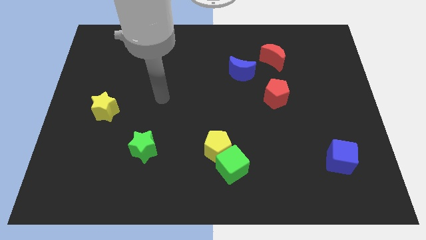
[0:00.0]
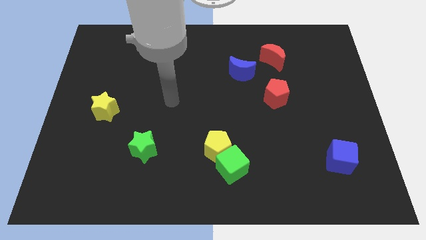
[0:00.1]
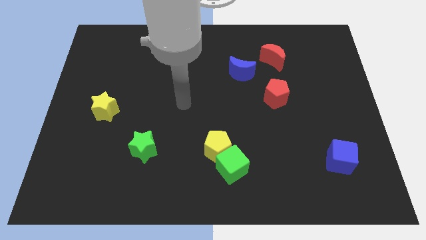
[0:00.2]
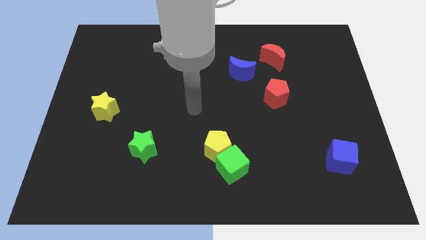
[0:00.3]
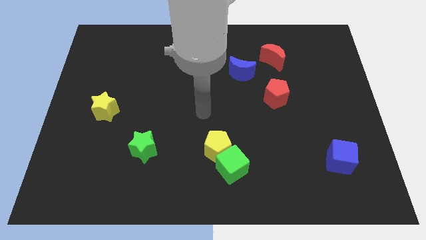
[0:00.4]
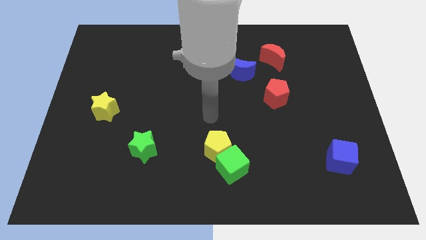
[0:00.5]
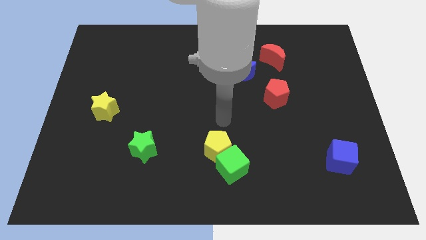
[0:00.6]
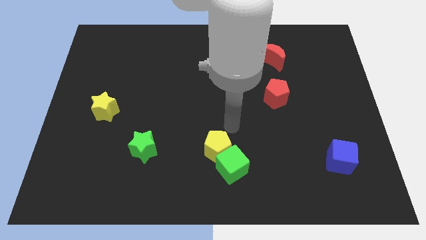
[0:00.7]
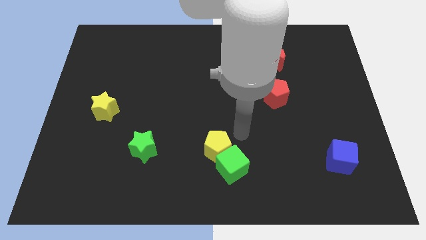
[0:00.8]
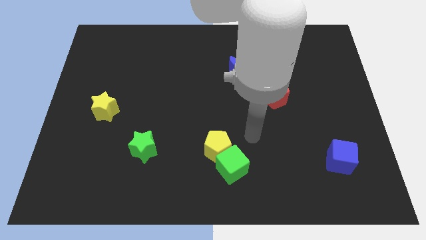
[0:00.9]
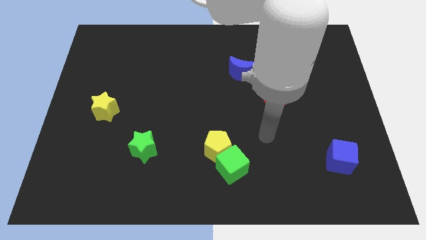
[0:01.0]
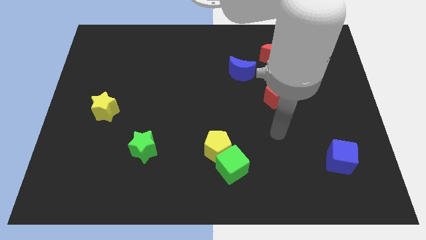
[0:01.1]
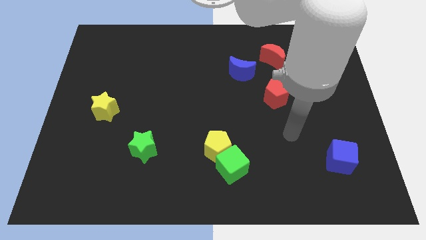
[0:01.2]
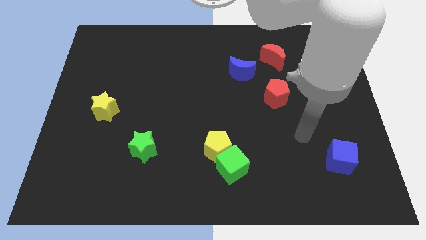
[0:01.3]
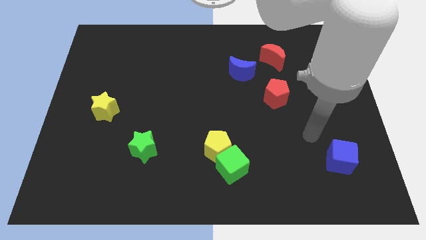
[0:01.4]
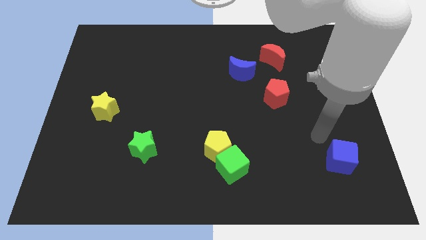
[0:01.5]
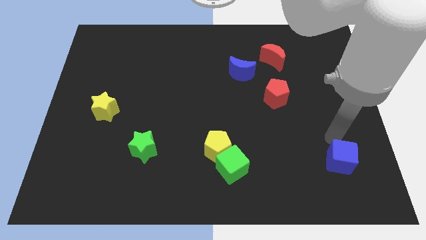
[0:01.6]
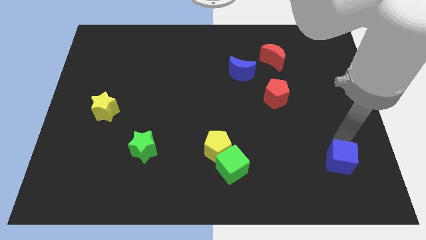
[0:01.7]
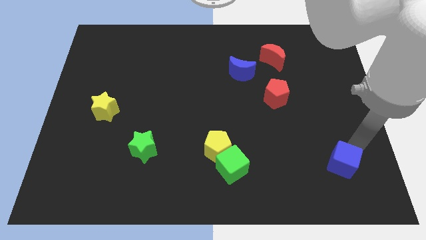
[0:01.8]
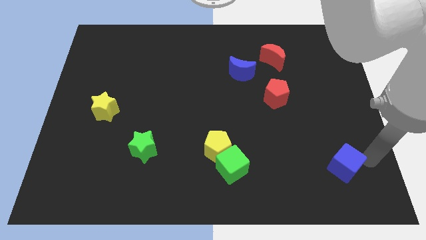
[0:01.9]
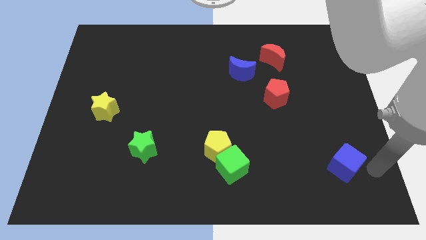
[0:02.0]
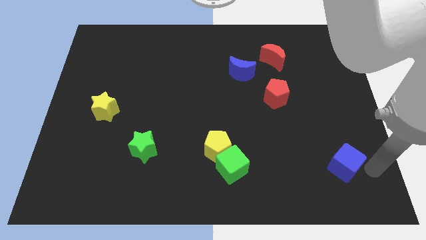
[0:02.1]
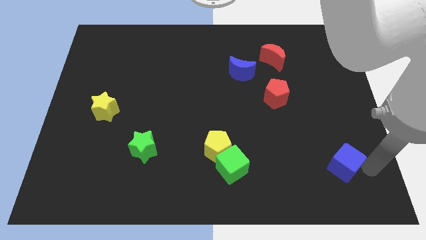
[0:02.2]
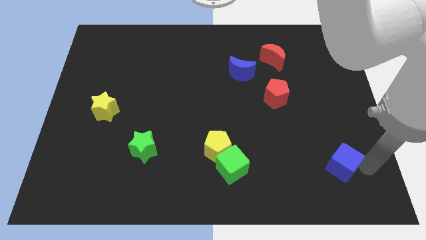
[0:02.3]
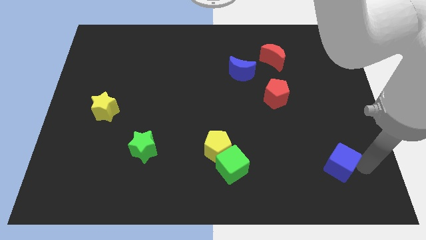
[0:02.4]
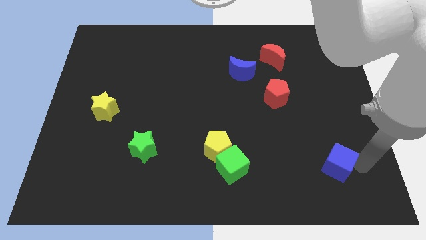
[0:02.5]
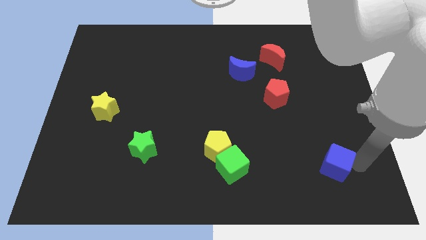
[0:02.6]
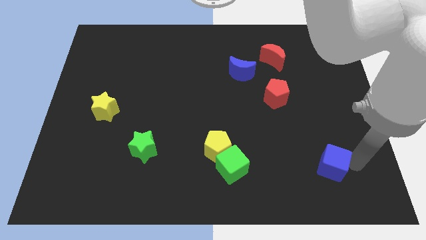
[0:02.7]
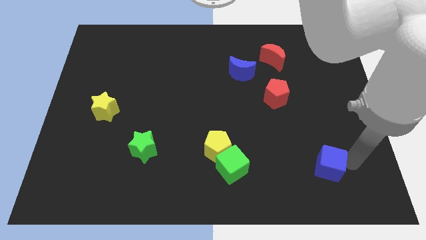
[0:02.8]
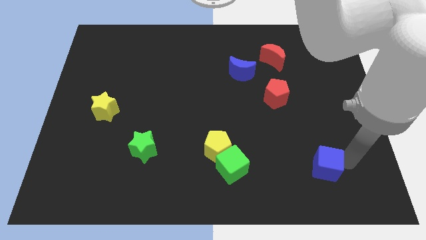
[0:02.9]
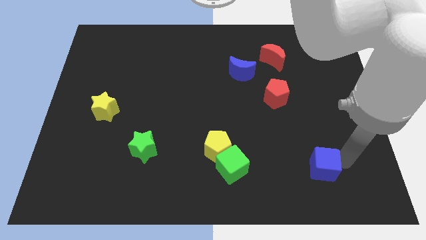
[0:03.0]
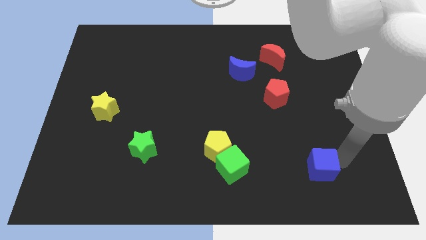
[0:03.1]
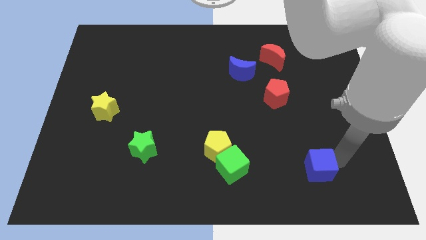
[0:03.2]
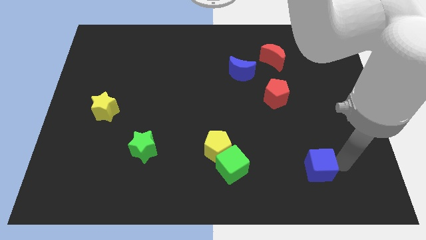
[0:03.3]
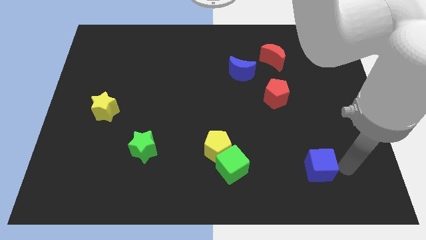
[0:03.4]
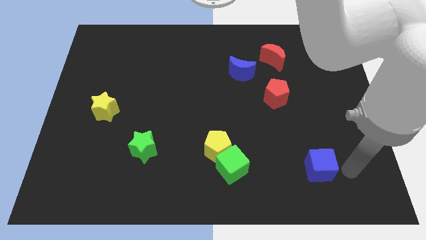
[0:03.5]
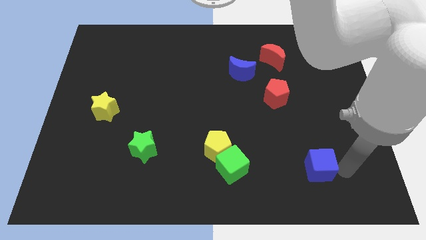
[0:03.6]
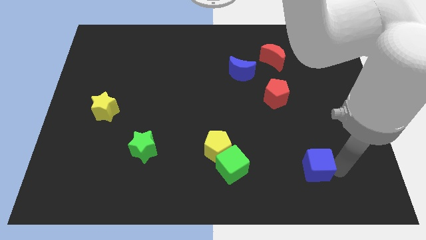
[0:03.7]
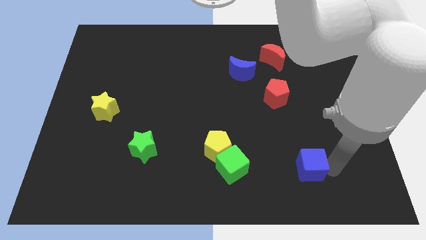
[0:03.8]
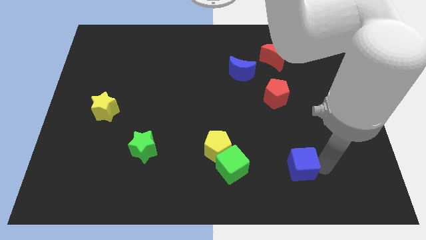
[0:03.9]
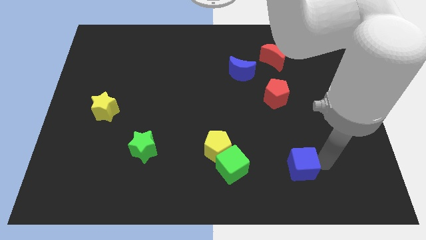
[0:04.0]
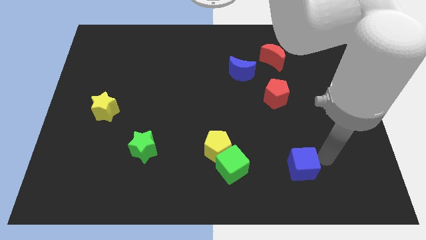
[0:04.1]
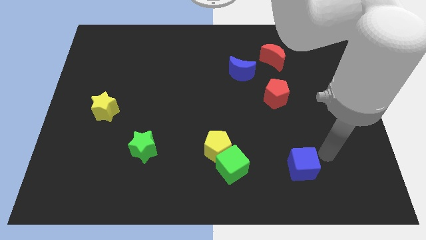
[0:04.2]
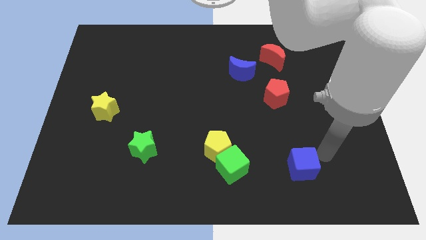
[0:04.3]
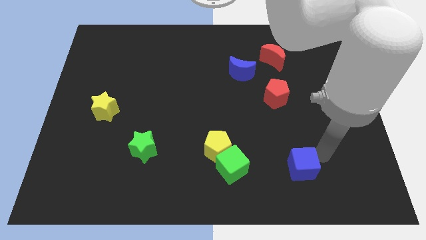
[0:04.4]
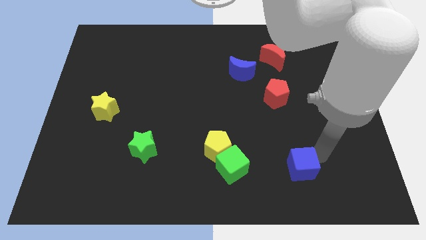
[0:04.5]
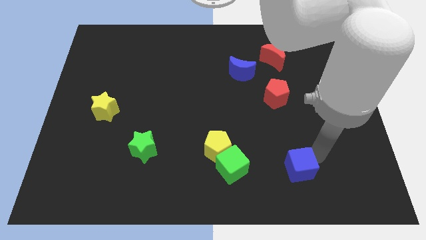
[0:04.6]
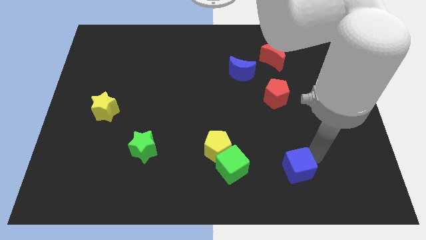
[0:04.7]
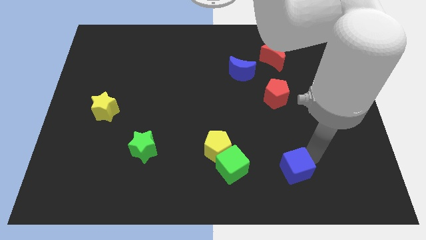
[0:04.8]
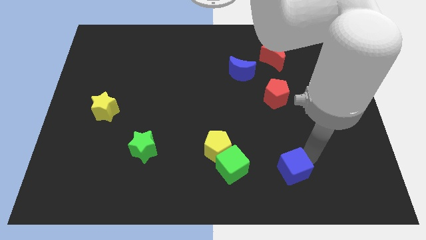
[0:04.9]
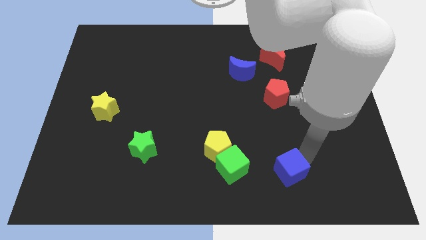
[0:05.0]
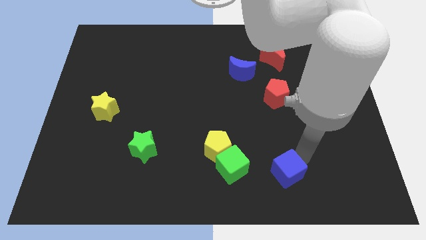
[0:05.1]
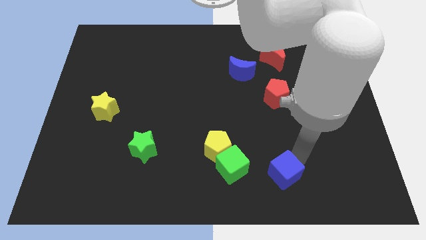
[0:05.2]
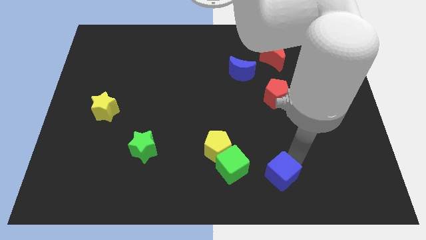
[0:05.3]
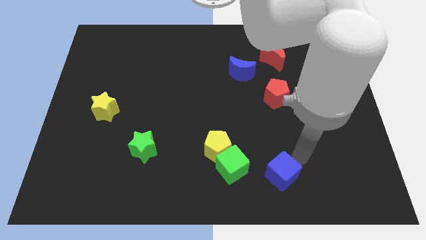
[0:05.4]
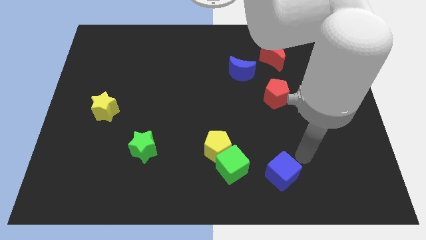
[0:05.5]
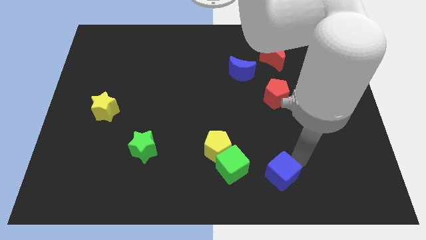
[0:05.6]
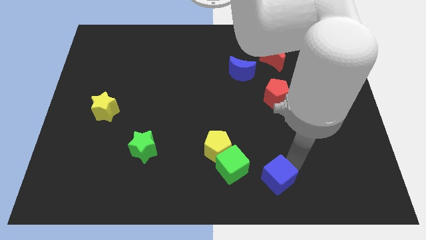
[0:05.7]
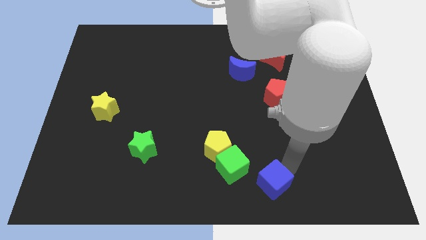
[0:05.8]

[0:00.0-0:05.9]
push the blue cube to the bottom

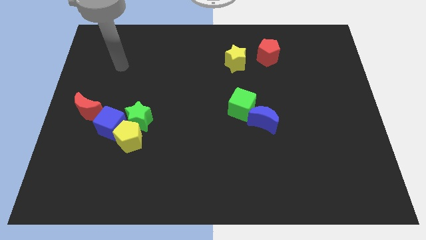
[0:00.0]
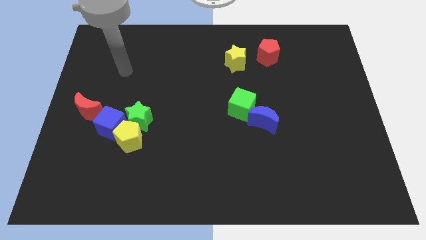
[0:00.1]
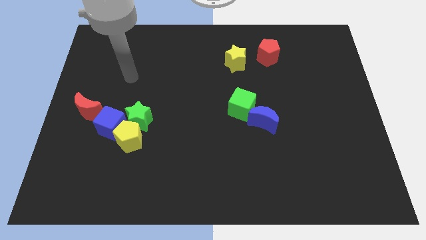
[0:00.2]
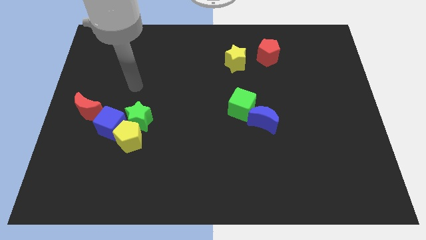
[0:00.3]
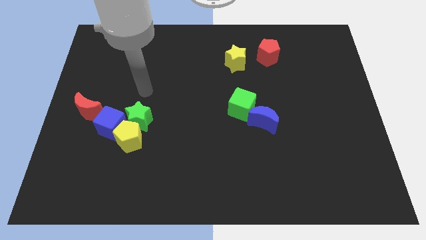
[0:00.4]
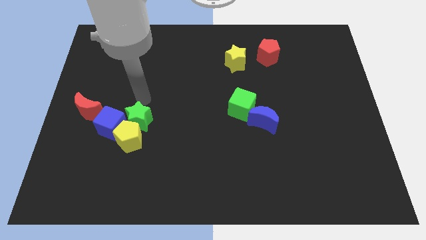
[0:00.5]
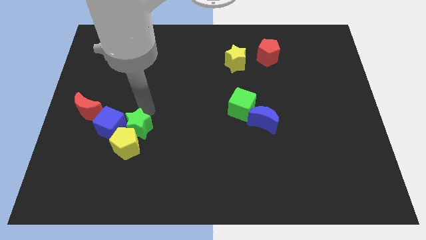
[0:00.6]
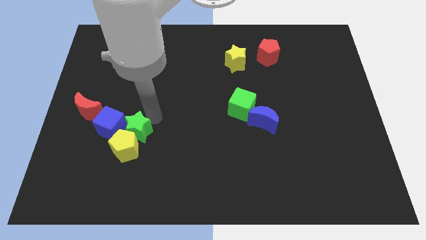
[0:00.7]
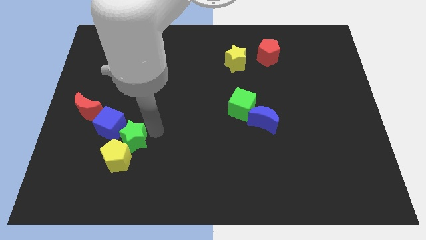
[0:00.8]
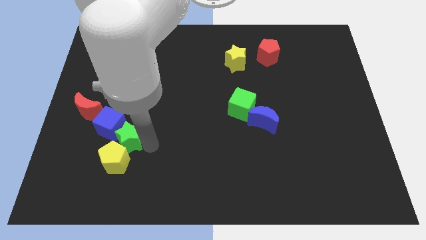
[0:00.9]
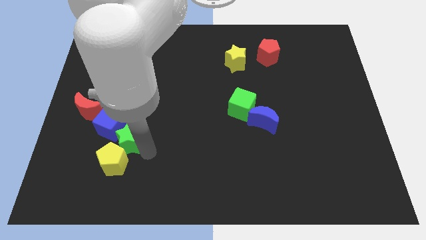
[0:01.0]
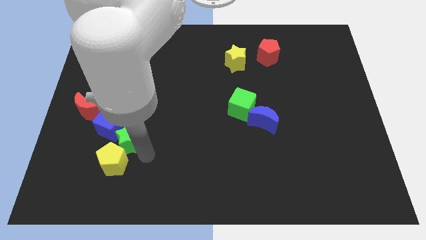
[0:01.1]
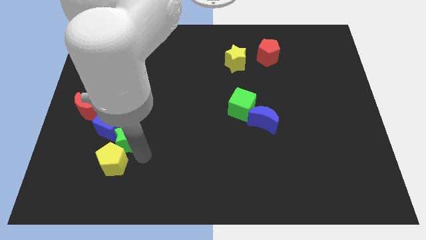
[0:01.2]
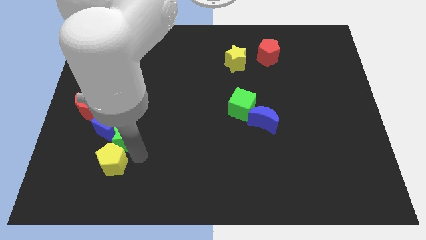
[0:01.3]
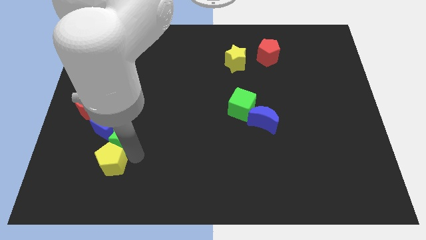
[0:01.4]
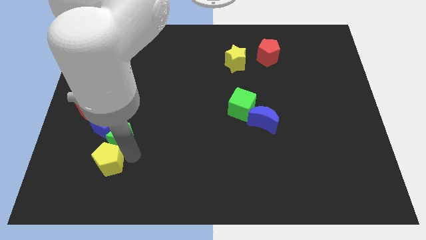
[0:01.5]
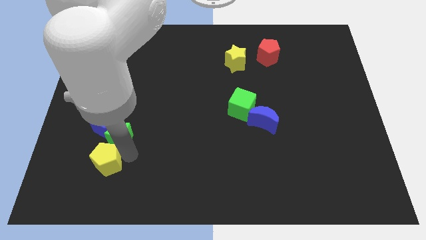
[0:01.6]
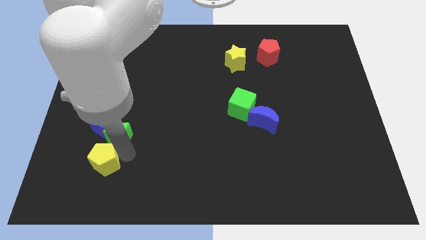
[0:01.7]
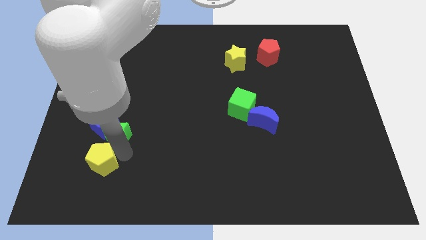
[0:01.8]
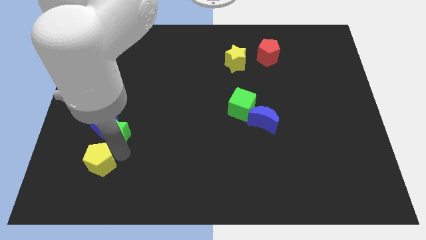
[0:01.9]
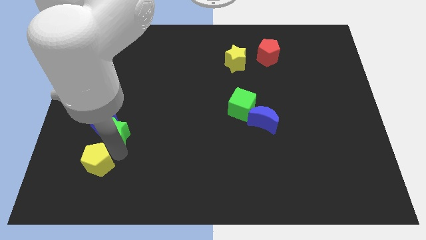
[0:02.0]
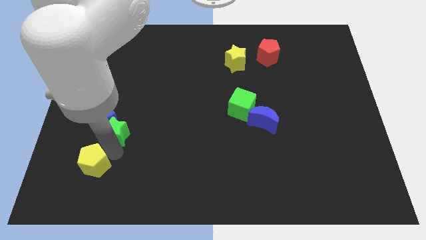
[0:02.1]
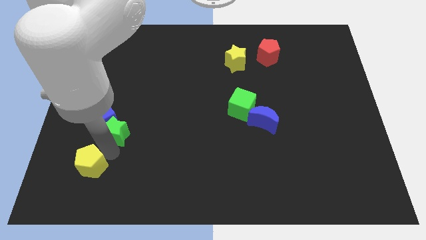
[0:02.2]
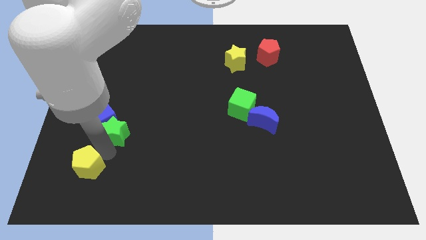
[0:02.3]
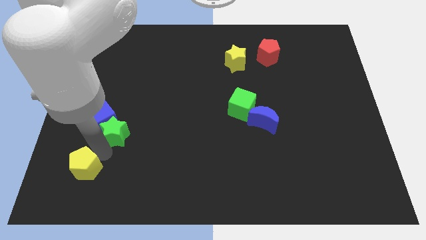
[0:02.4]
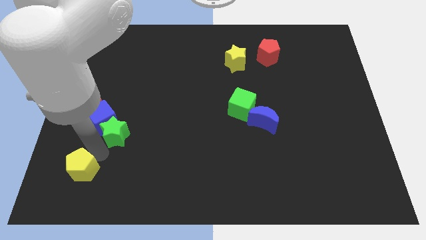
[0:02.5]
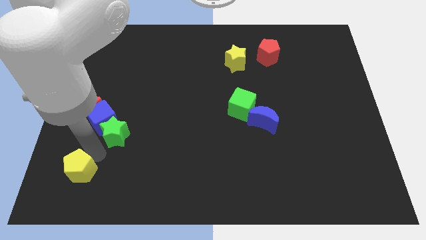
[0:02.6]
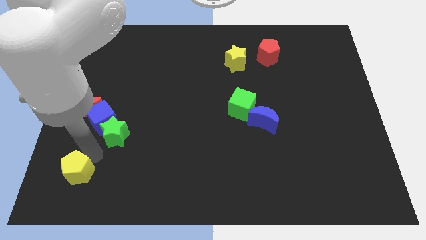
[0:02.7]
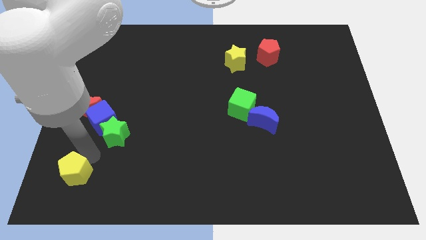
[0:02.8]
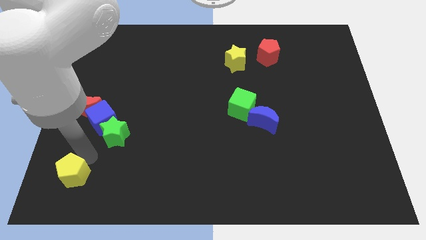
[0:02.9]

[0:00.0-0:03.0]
put the yellow pentagon to the bottom left
